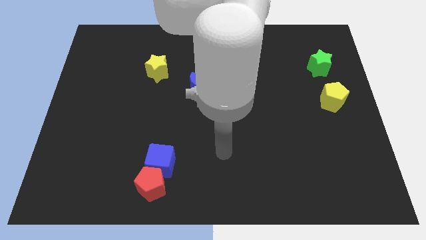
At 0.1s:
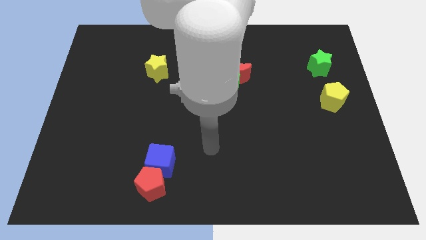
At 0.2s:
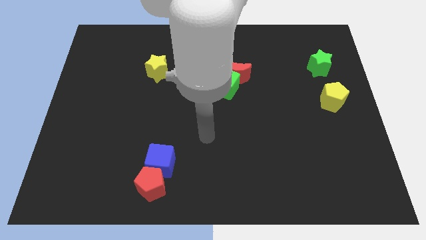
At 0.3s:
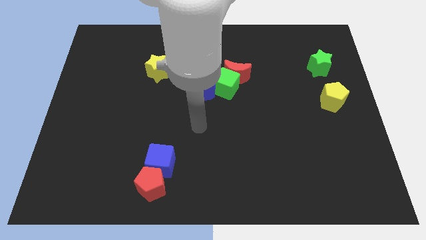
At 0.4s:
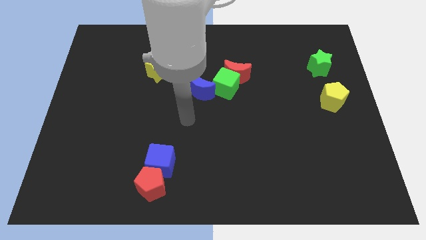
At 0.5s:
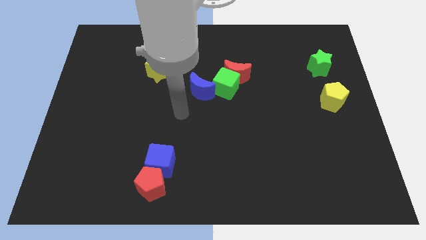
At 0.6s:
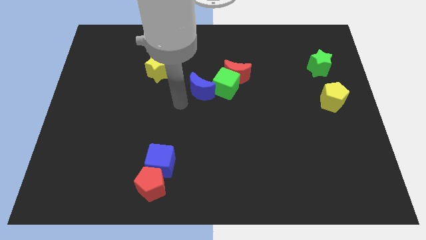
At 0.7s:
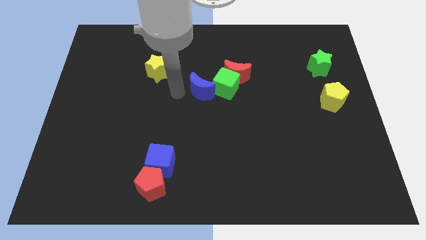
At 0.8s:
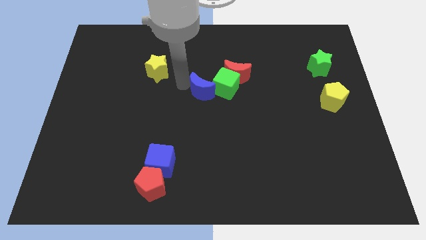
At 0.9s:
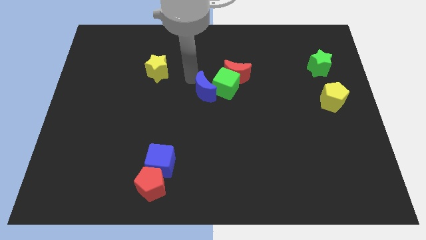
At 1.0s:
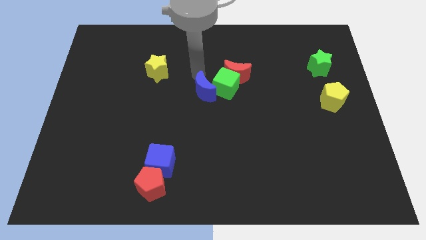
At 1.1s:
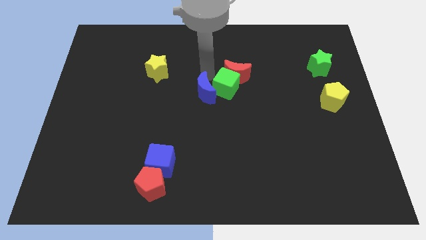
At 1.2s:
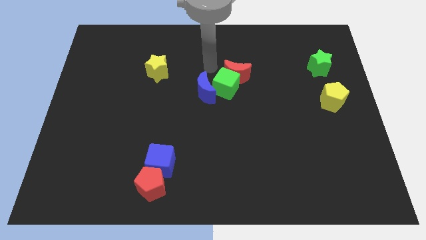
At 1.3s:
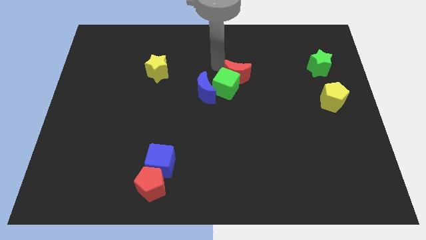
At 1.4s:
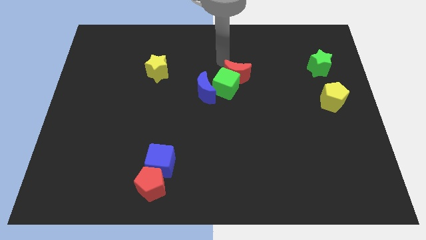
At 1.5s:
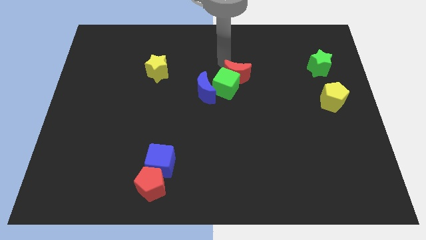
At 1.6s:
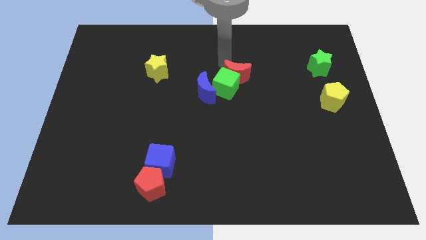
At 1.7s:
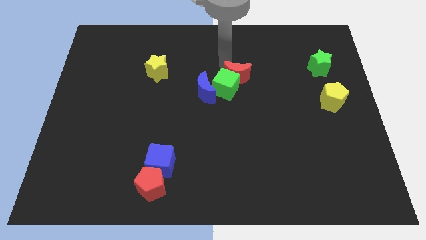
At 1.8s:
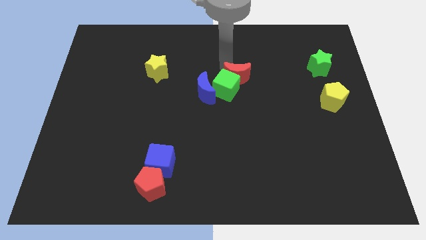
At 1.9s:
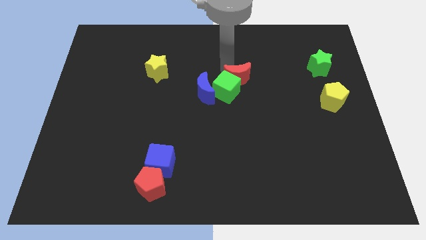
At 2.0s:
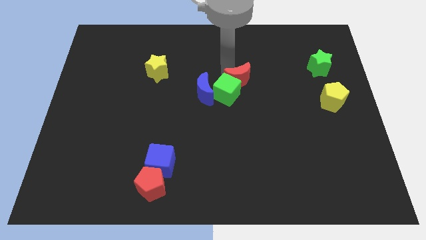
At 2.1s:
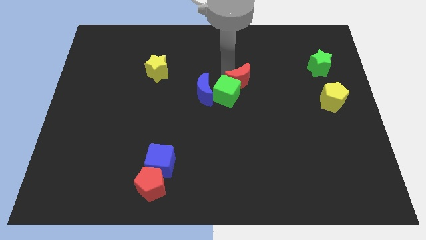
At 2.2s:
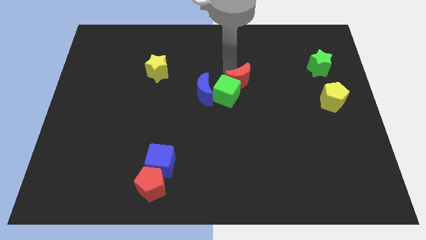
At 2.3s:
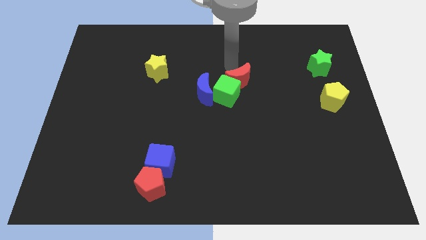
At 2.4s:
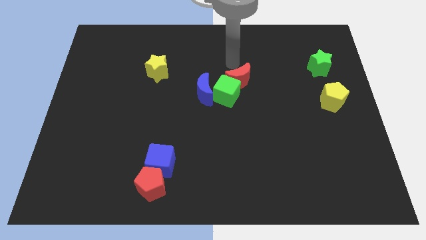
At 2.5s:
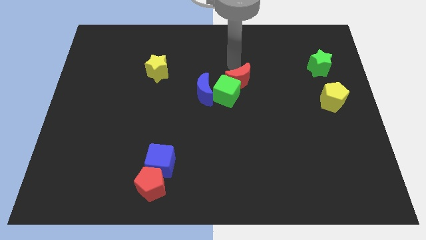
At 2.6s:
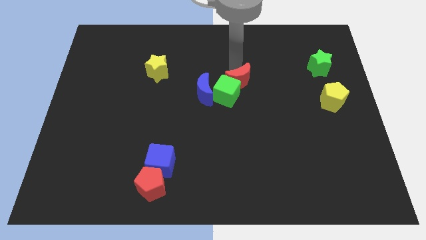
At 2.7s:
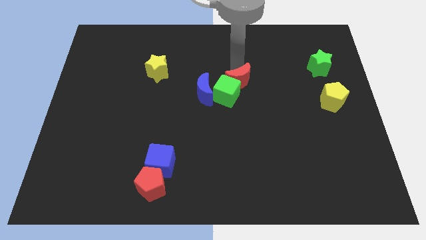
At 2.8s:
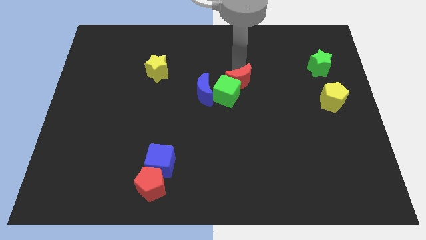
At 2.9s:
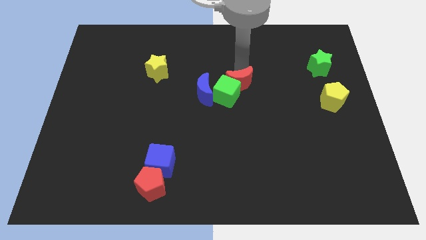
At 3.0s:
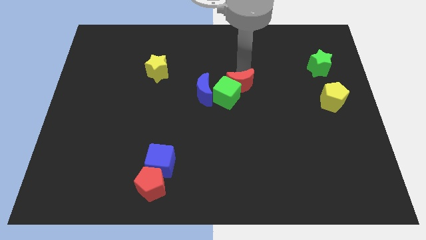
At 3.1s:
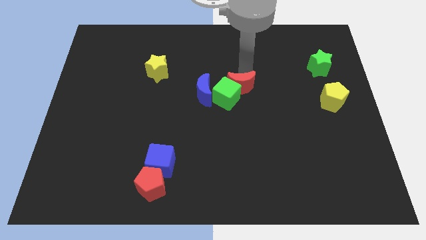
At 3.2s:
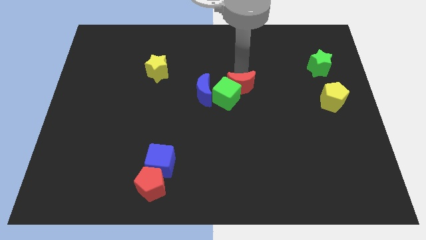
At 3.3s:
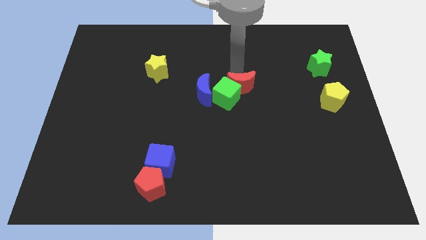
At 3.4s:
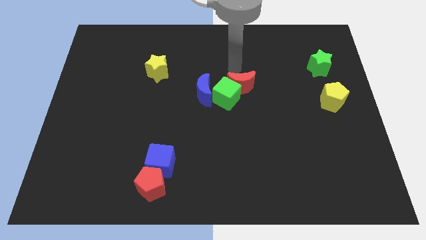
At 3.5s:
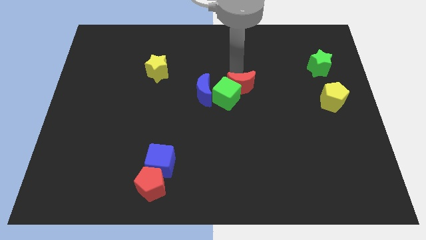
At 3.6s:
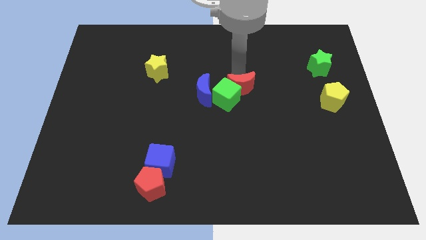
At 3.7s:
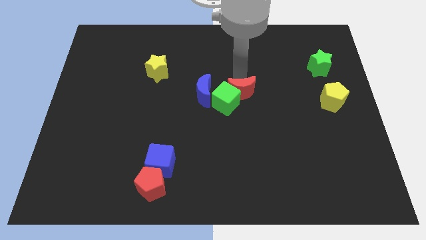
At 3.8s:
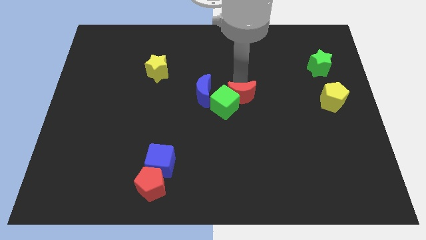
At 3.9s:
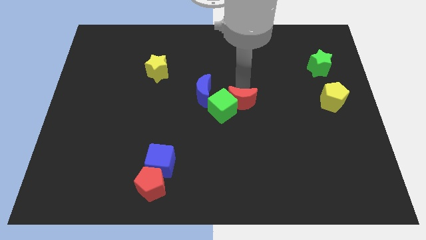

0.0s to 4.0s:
slide the red moon downwards a little bit

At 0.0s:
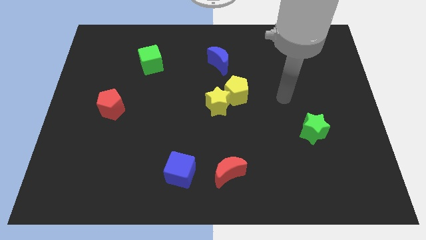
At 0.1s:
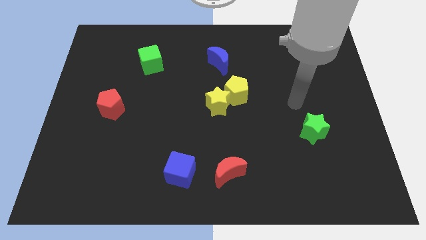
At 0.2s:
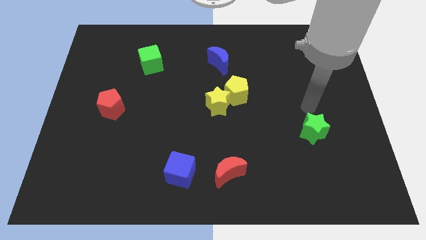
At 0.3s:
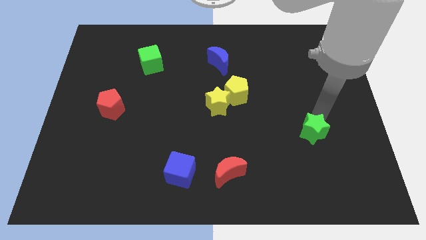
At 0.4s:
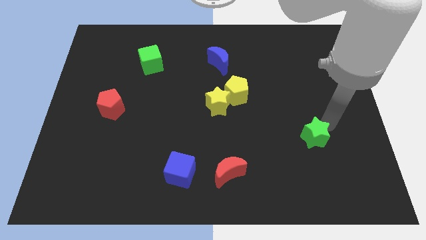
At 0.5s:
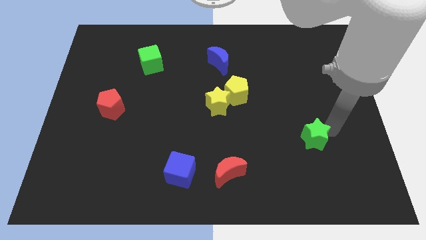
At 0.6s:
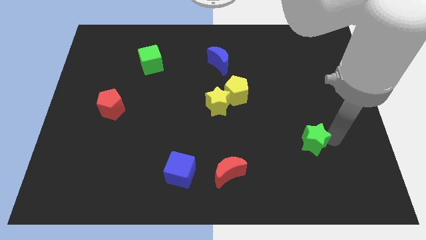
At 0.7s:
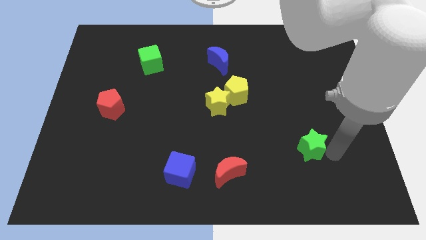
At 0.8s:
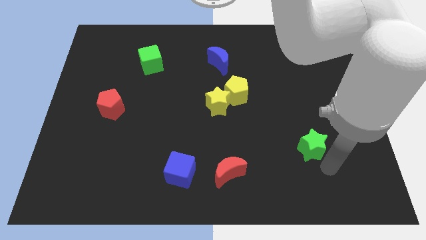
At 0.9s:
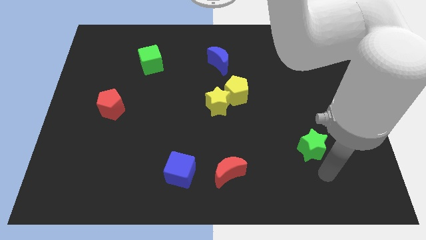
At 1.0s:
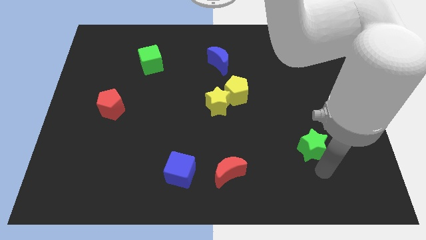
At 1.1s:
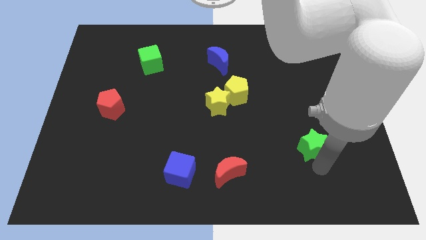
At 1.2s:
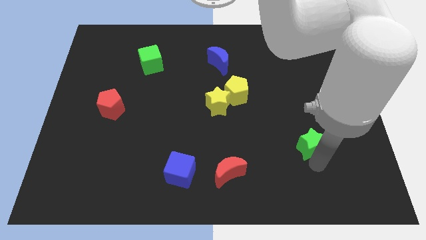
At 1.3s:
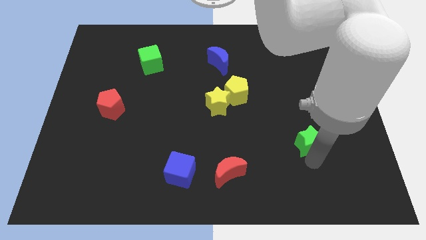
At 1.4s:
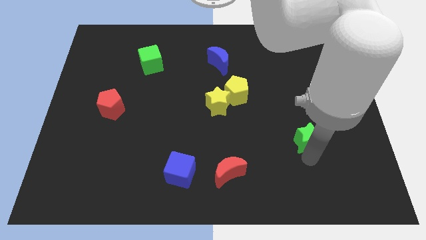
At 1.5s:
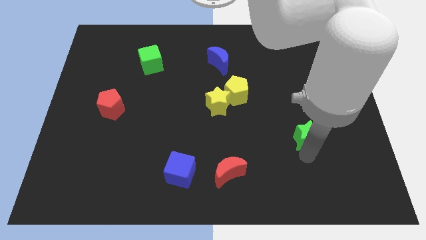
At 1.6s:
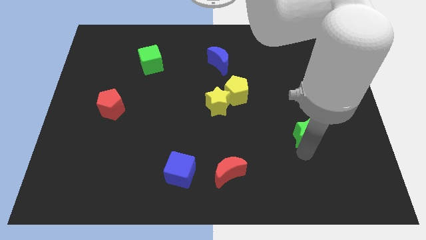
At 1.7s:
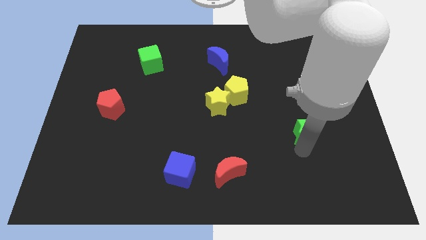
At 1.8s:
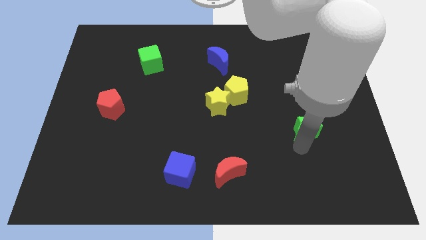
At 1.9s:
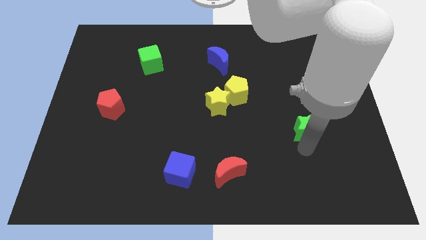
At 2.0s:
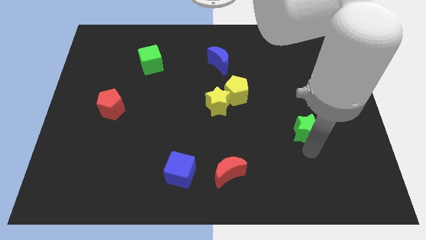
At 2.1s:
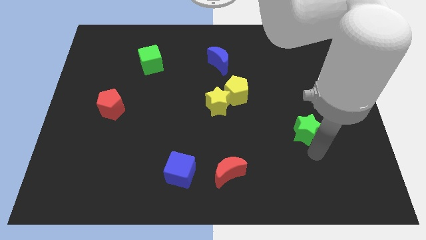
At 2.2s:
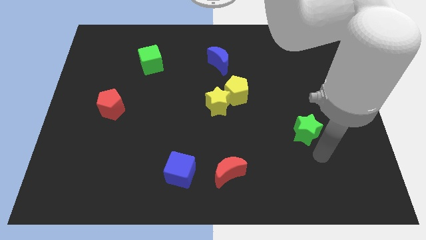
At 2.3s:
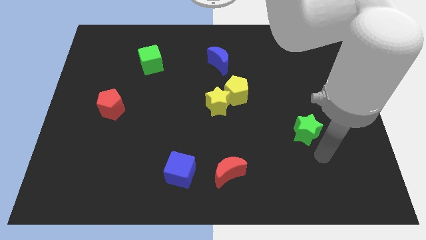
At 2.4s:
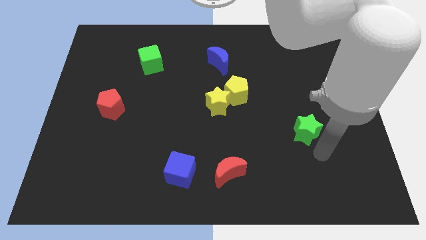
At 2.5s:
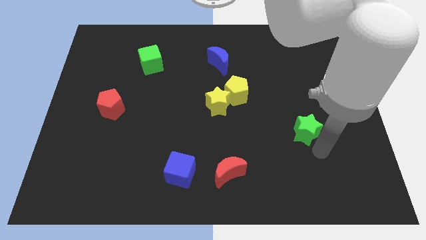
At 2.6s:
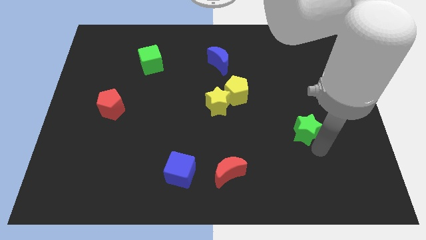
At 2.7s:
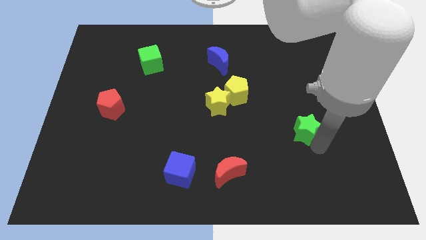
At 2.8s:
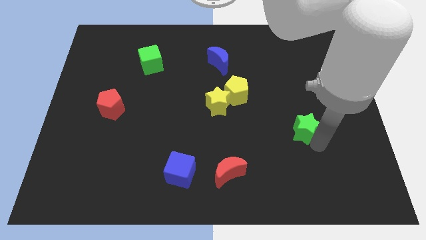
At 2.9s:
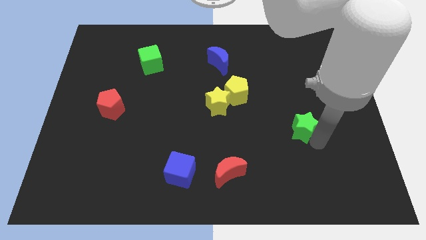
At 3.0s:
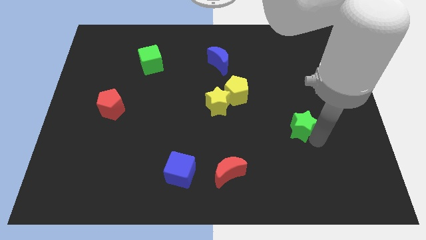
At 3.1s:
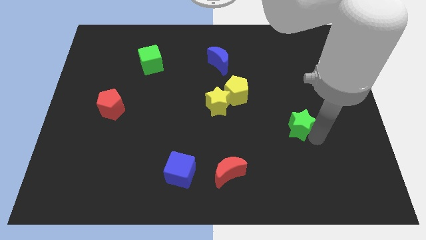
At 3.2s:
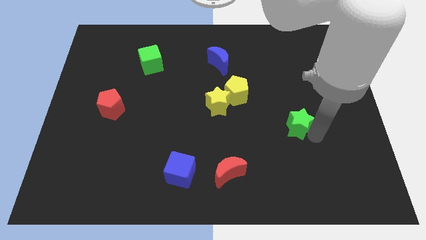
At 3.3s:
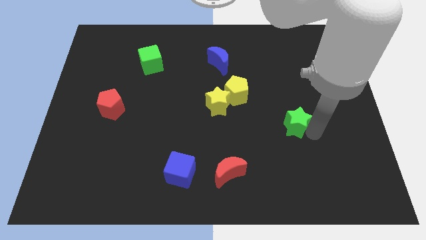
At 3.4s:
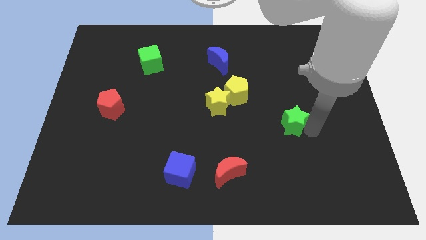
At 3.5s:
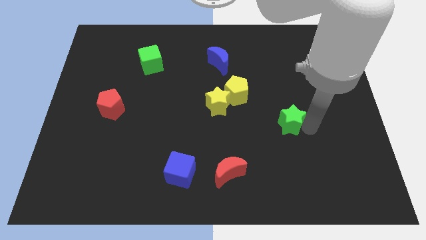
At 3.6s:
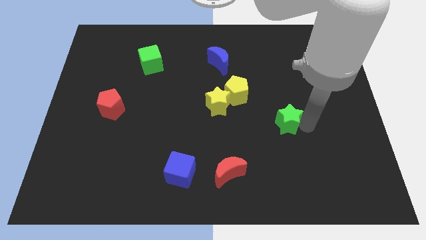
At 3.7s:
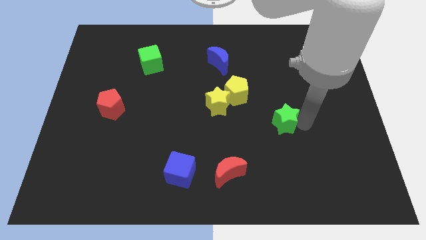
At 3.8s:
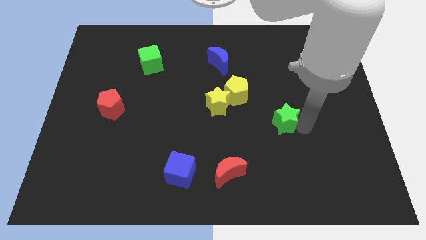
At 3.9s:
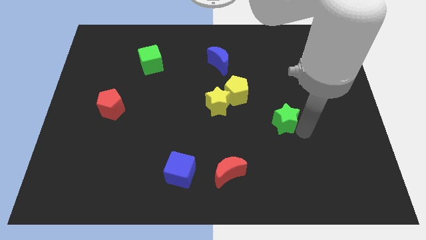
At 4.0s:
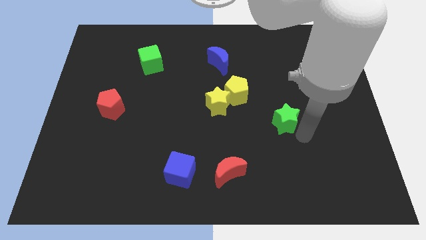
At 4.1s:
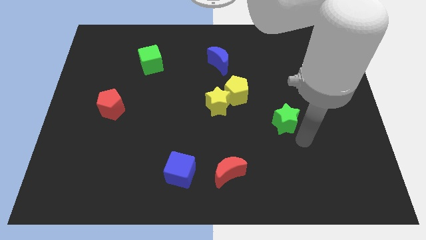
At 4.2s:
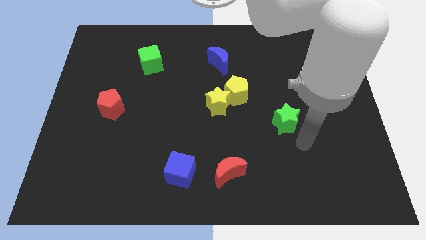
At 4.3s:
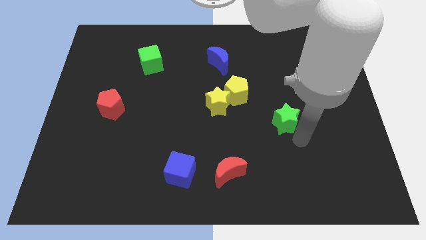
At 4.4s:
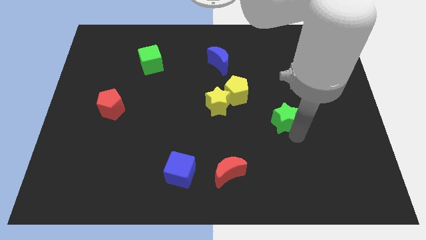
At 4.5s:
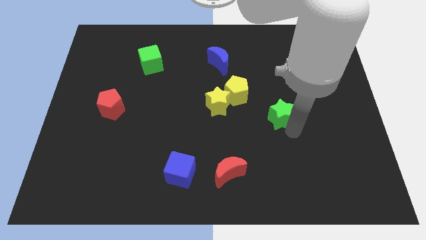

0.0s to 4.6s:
push the green star slightly up and left diagonally
